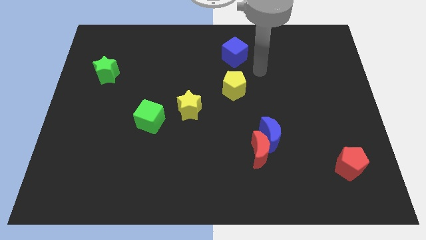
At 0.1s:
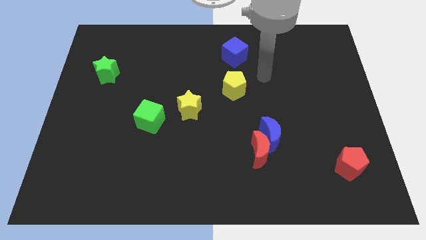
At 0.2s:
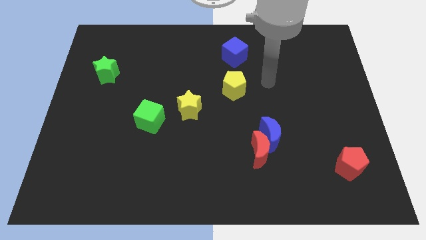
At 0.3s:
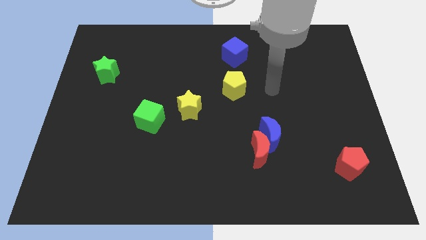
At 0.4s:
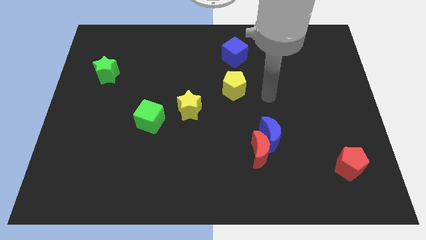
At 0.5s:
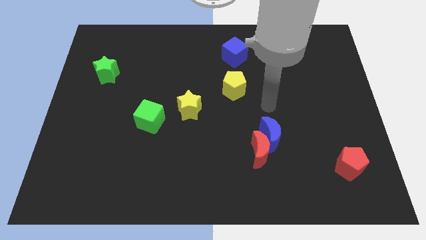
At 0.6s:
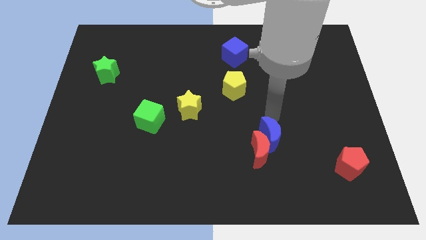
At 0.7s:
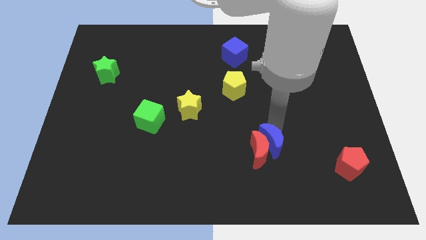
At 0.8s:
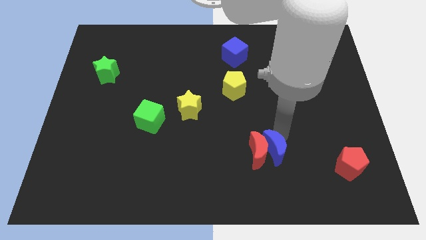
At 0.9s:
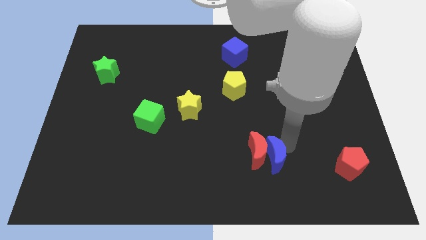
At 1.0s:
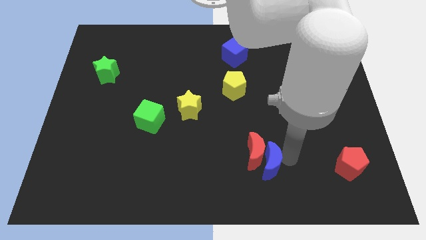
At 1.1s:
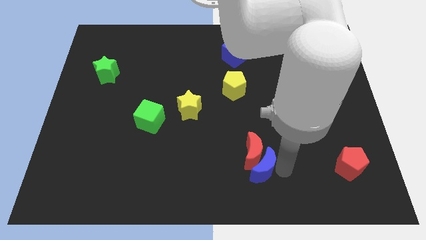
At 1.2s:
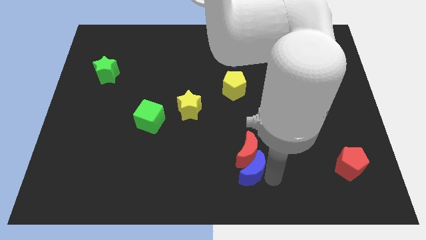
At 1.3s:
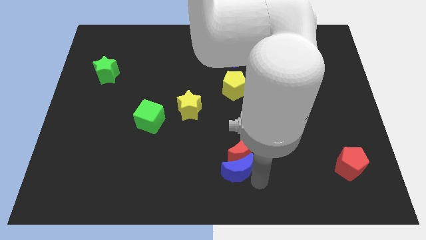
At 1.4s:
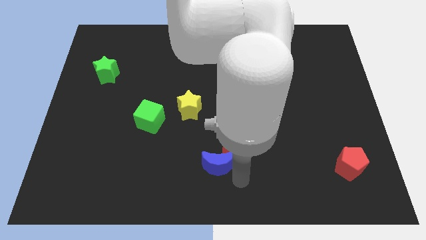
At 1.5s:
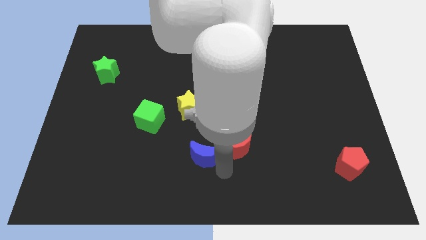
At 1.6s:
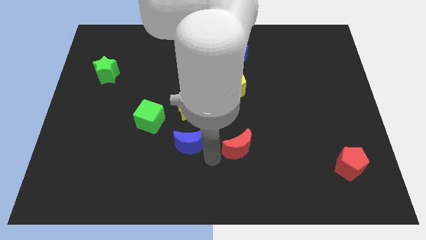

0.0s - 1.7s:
move the red moon away from the blue moon

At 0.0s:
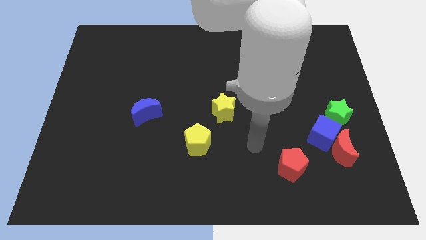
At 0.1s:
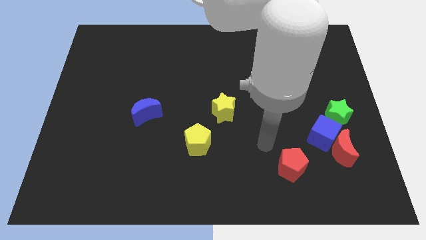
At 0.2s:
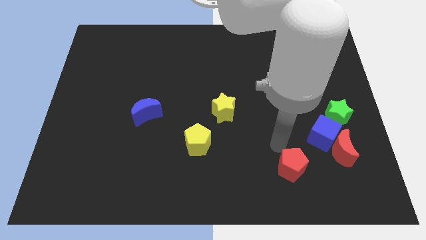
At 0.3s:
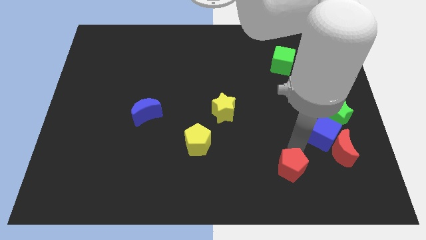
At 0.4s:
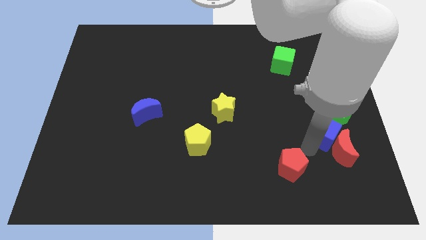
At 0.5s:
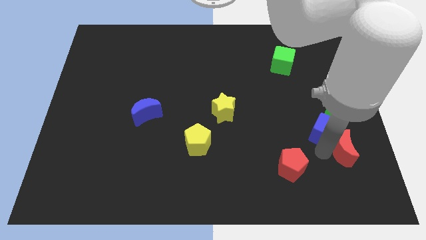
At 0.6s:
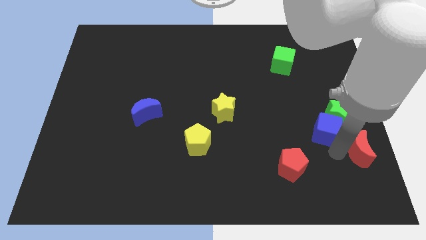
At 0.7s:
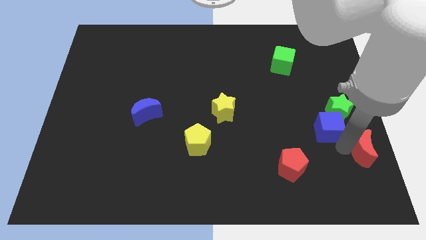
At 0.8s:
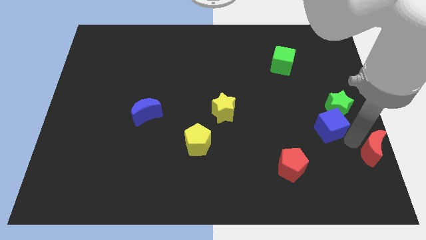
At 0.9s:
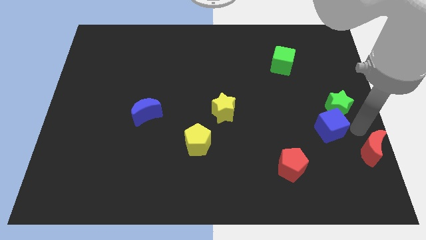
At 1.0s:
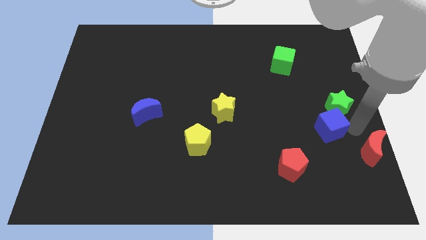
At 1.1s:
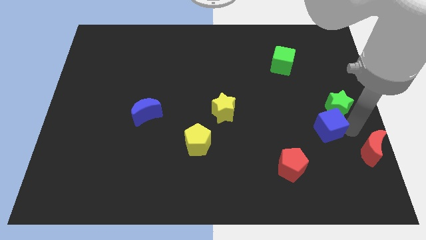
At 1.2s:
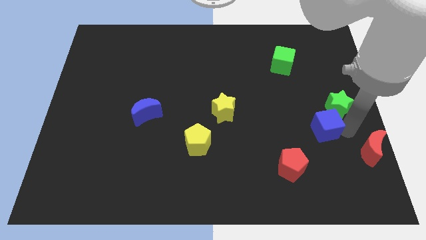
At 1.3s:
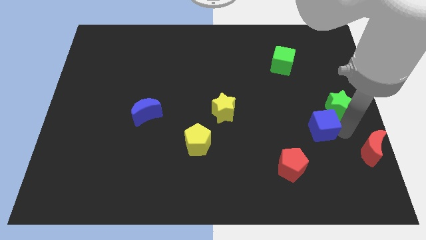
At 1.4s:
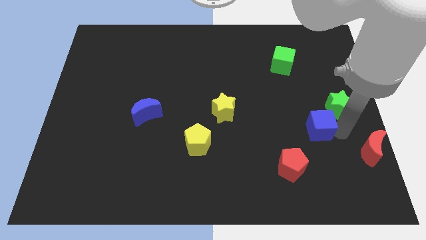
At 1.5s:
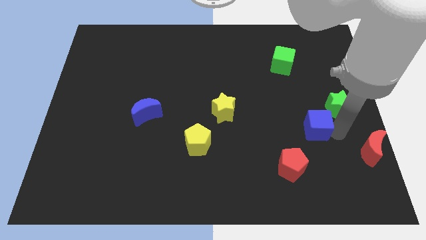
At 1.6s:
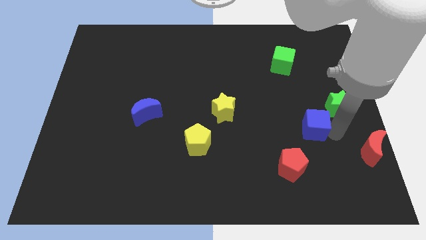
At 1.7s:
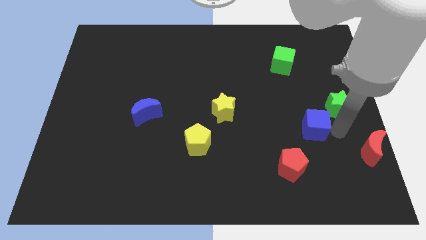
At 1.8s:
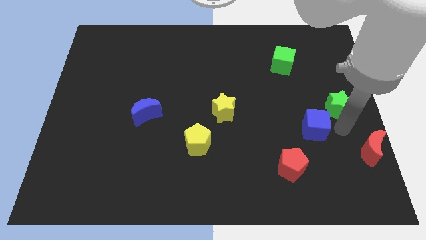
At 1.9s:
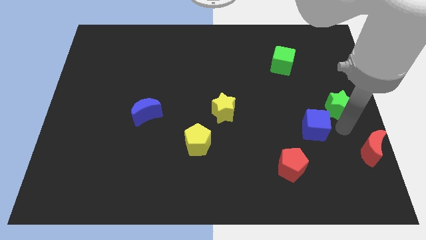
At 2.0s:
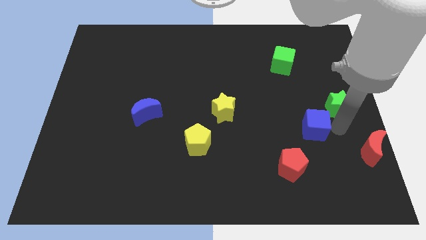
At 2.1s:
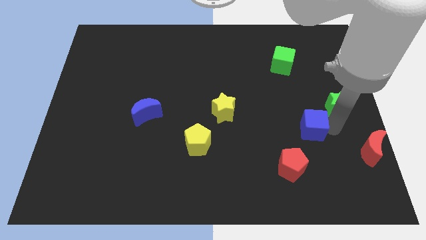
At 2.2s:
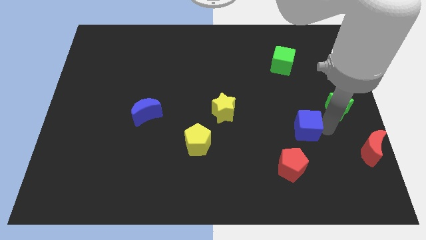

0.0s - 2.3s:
separate the blue cube from the red moon and green star

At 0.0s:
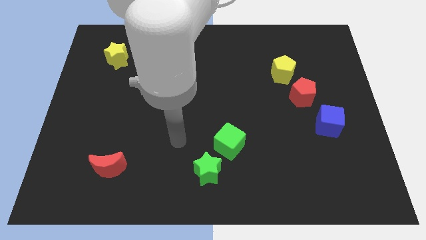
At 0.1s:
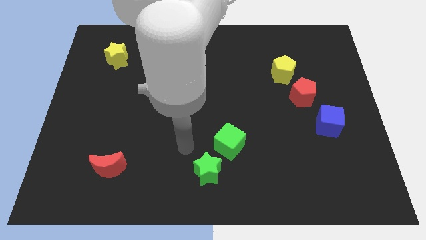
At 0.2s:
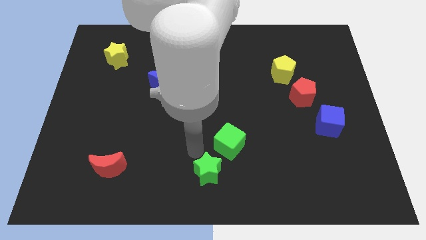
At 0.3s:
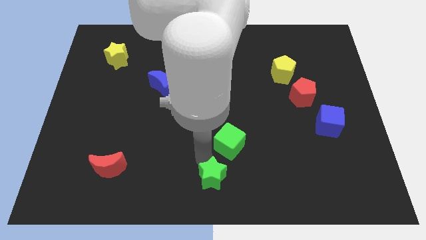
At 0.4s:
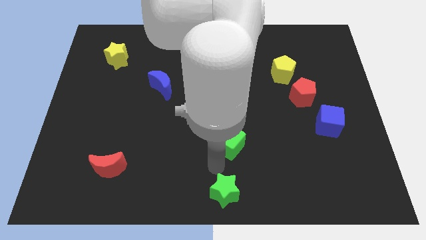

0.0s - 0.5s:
separate the green cube from the green star

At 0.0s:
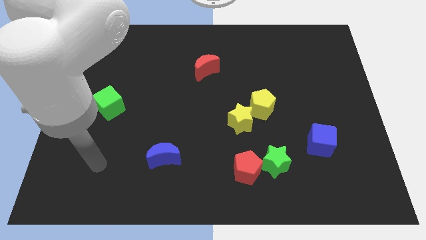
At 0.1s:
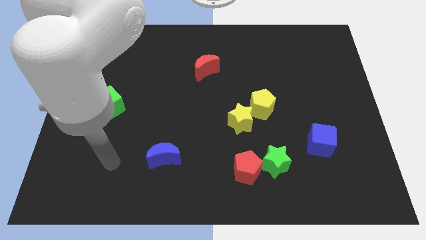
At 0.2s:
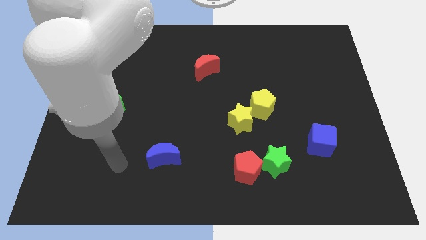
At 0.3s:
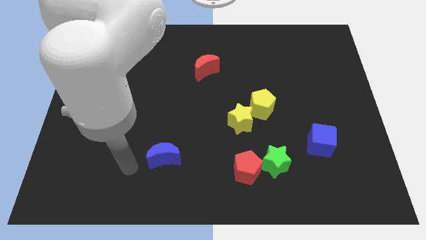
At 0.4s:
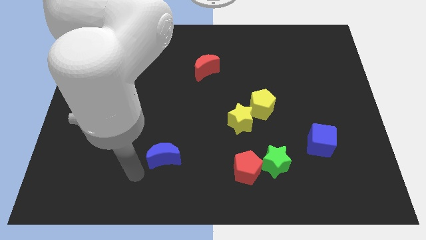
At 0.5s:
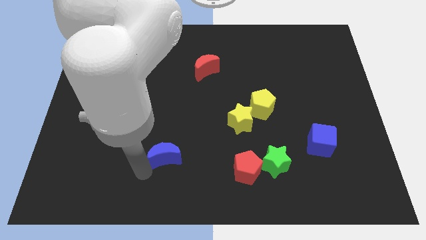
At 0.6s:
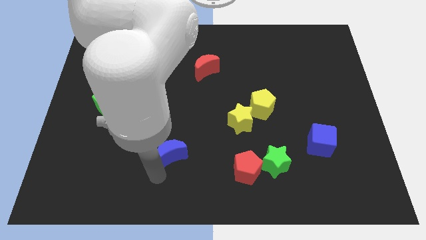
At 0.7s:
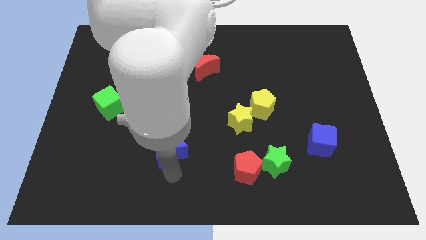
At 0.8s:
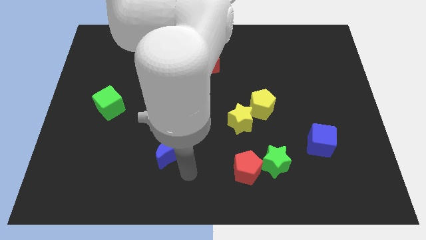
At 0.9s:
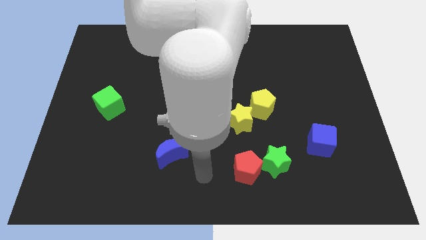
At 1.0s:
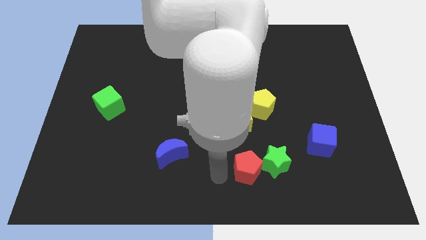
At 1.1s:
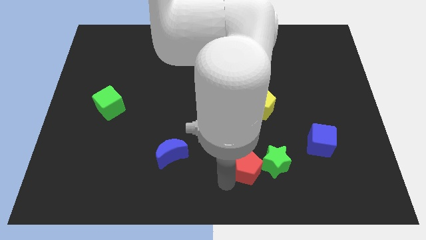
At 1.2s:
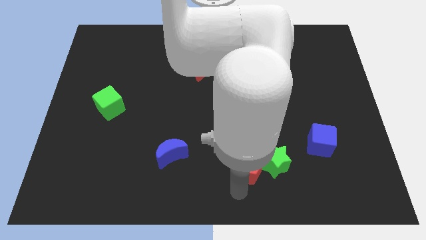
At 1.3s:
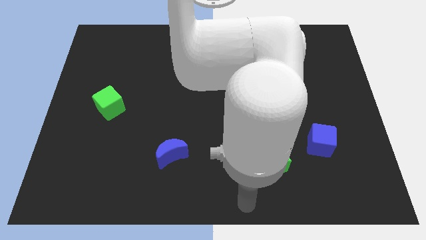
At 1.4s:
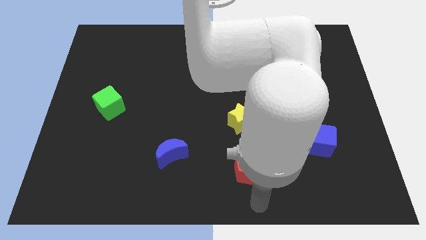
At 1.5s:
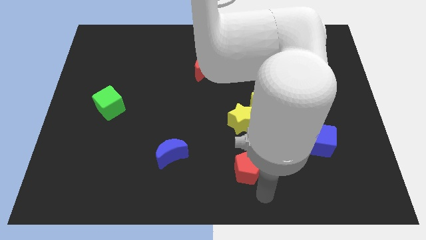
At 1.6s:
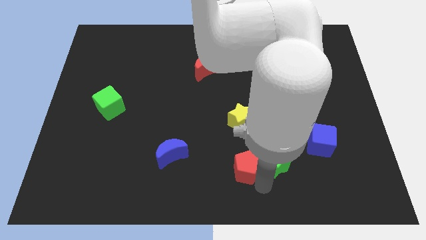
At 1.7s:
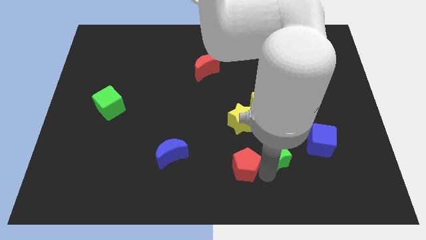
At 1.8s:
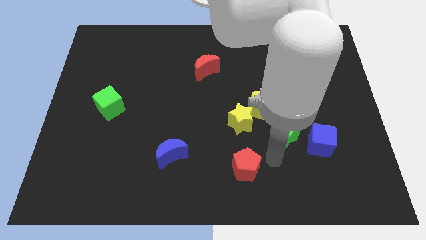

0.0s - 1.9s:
move the red pentagon away from the green star

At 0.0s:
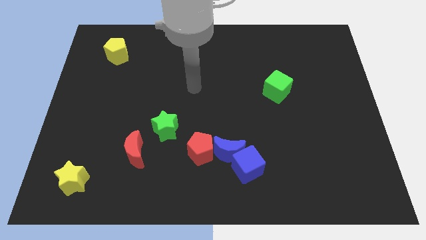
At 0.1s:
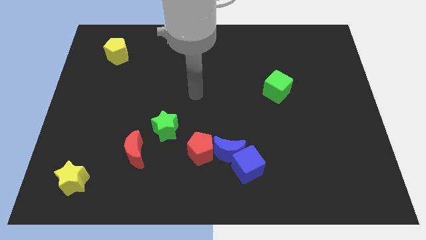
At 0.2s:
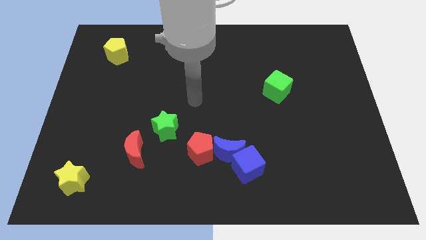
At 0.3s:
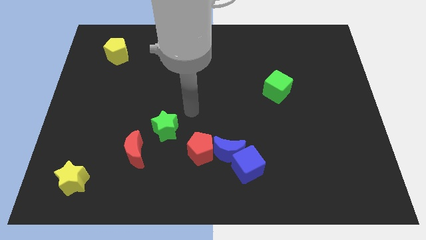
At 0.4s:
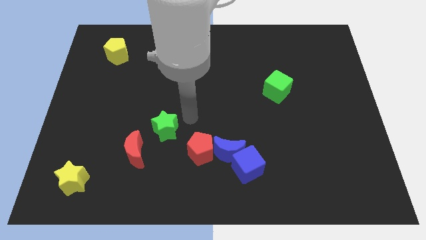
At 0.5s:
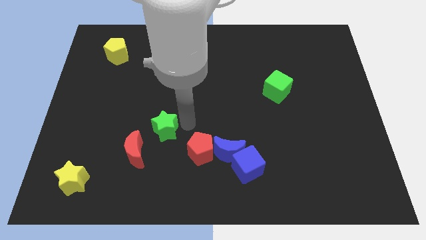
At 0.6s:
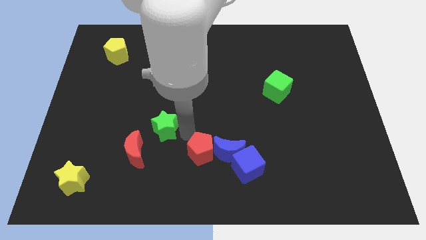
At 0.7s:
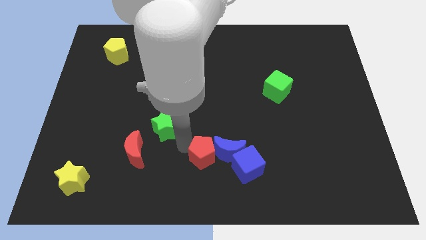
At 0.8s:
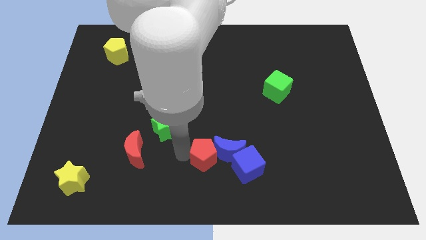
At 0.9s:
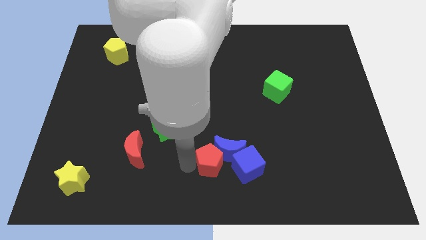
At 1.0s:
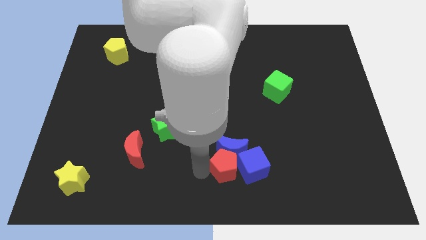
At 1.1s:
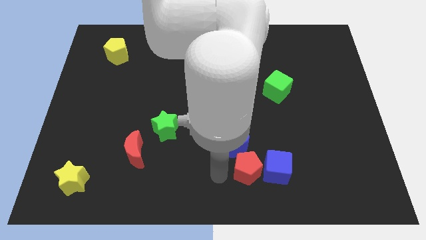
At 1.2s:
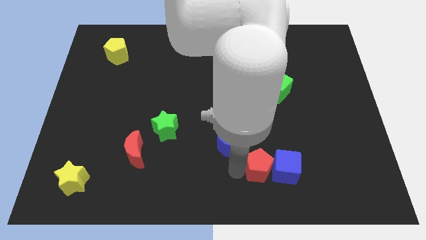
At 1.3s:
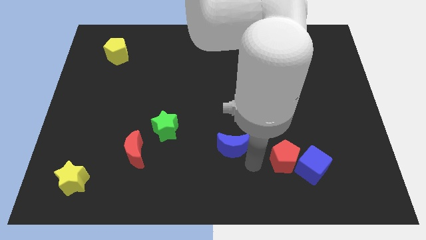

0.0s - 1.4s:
move the blue moon away from the blue cube and red pentagon

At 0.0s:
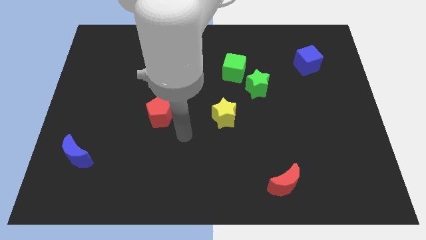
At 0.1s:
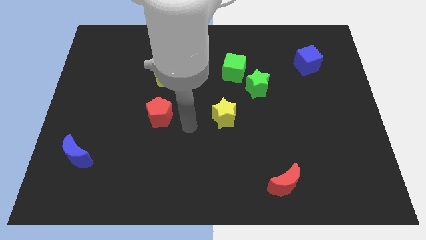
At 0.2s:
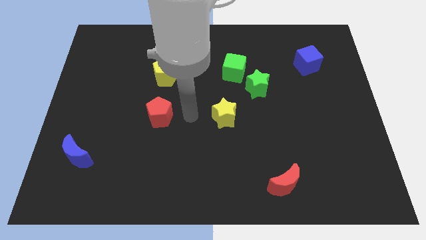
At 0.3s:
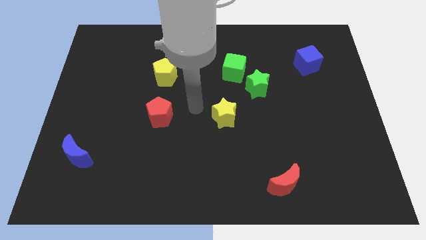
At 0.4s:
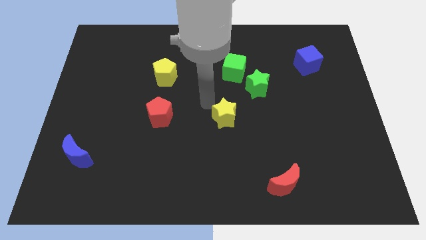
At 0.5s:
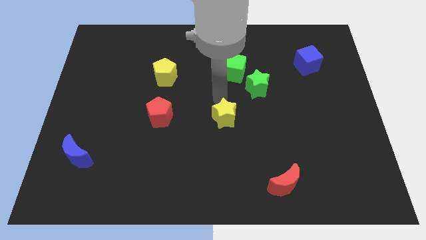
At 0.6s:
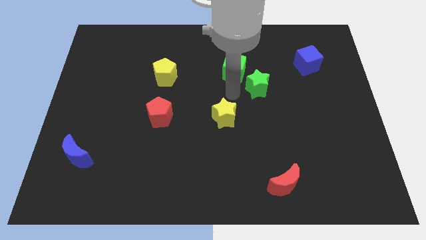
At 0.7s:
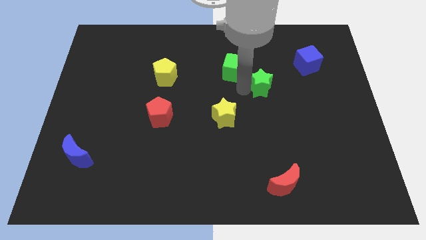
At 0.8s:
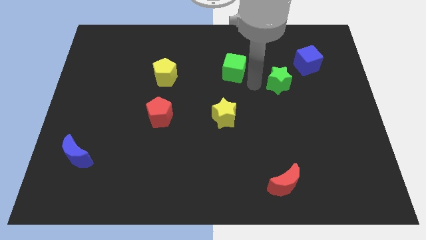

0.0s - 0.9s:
pull the green cube apart from the green star

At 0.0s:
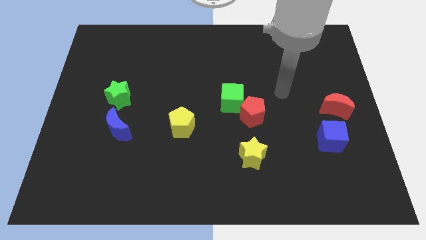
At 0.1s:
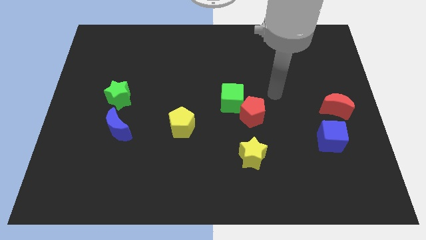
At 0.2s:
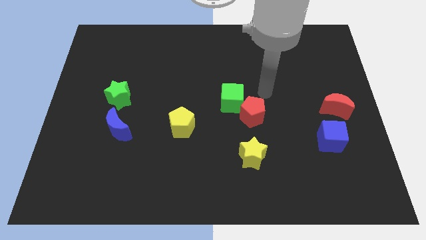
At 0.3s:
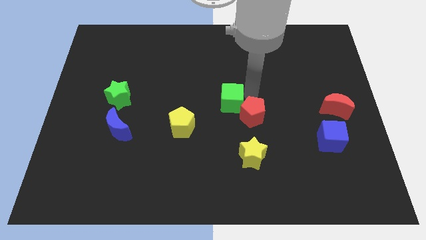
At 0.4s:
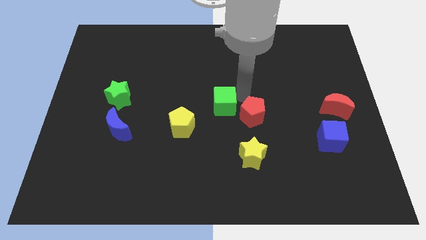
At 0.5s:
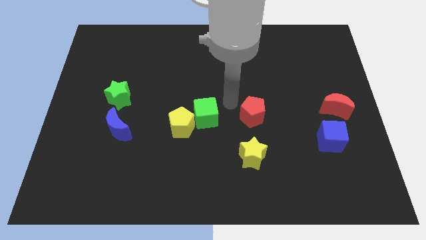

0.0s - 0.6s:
pull the red pentagon apart from the green cube
